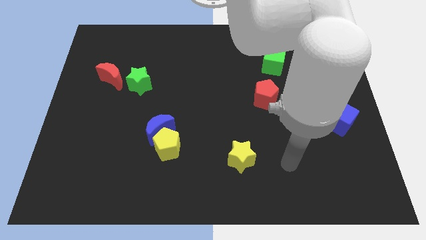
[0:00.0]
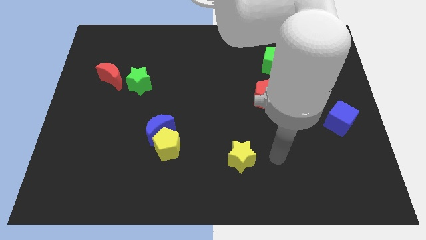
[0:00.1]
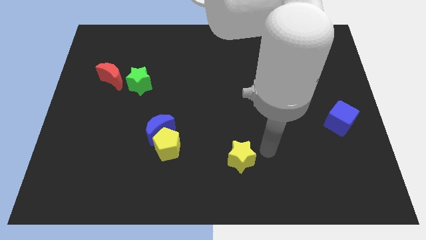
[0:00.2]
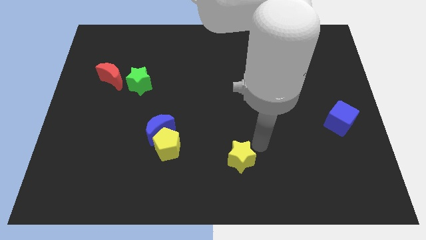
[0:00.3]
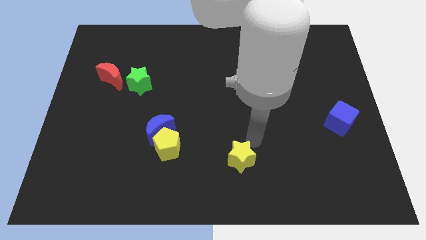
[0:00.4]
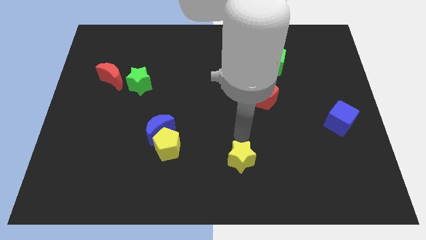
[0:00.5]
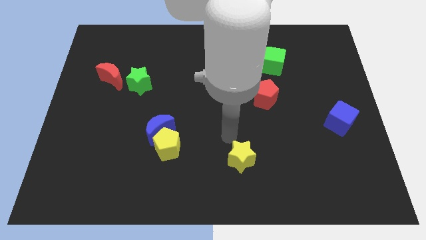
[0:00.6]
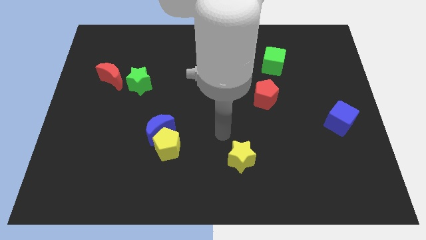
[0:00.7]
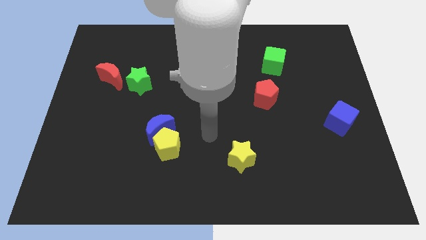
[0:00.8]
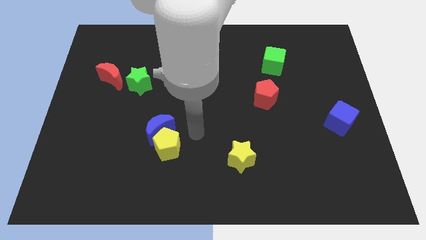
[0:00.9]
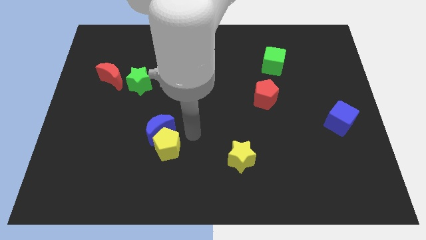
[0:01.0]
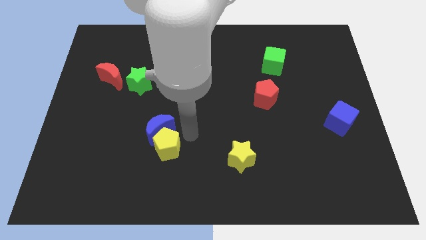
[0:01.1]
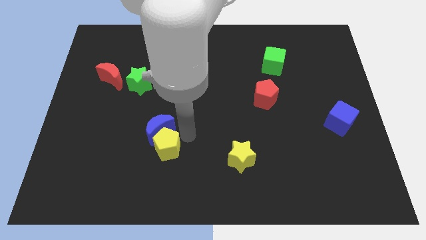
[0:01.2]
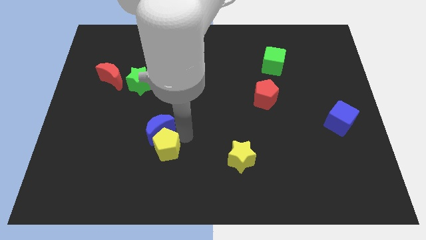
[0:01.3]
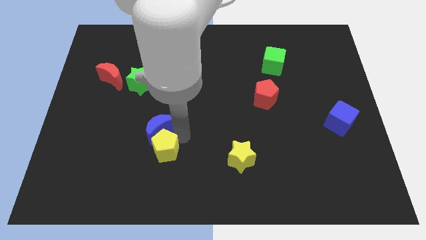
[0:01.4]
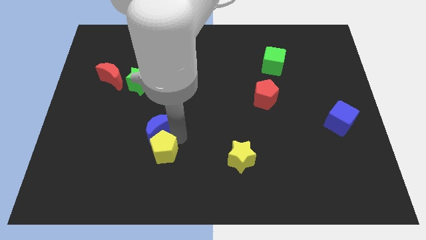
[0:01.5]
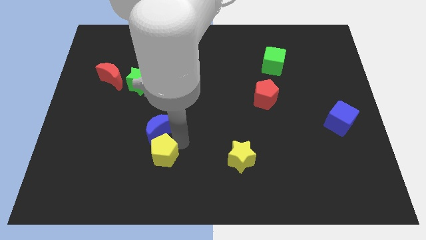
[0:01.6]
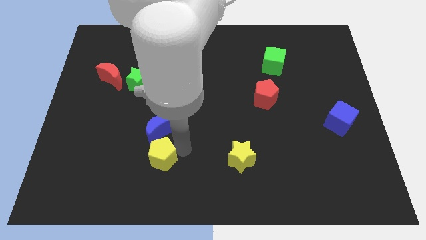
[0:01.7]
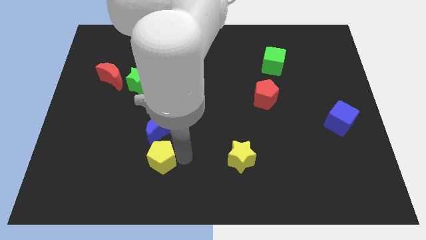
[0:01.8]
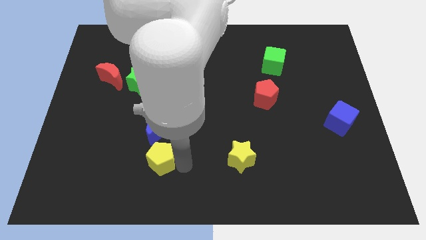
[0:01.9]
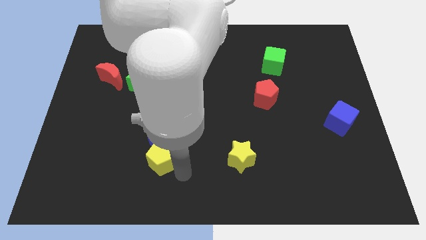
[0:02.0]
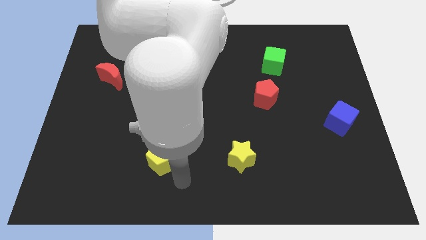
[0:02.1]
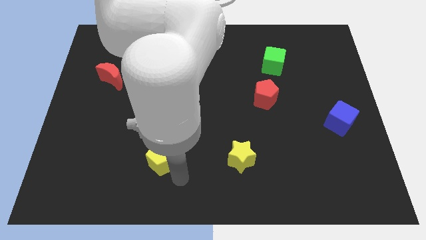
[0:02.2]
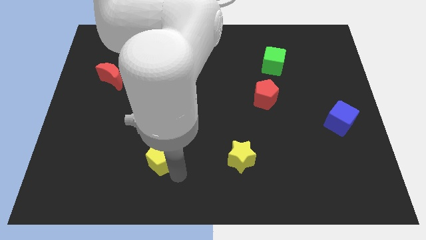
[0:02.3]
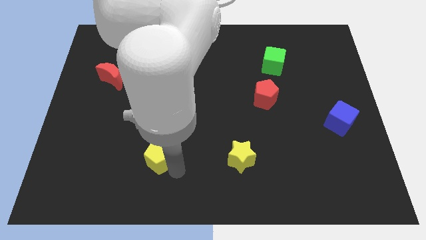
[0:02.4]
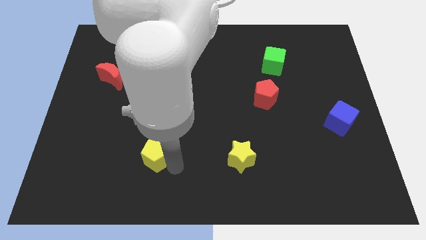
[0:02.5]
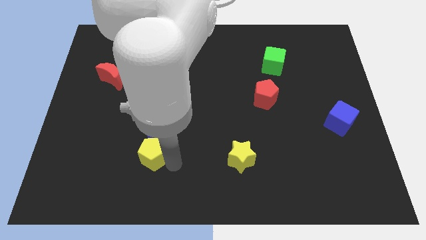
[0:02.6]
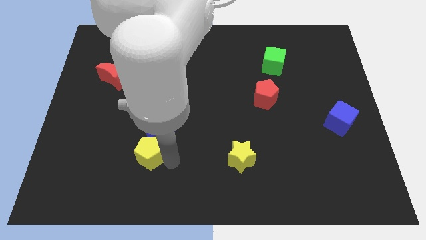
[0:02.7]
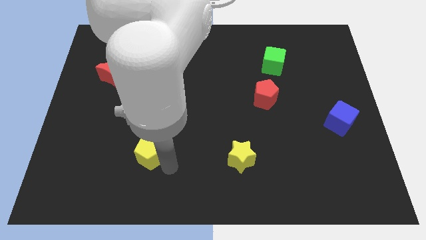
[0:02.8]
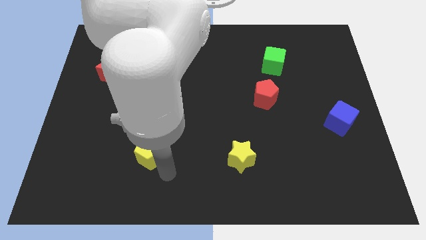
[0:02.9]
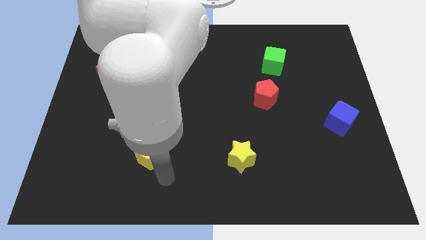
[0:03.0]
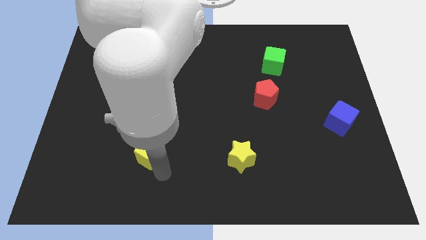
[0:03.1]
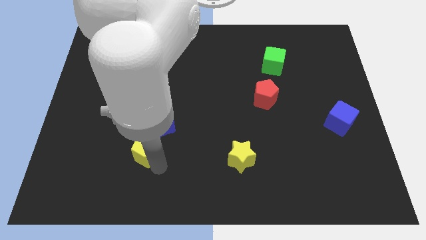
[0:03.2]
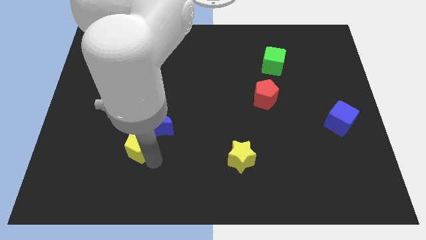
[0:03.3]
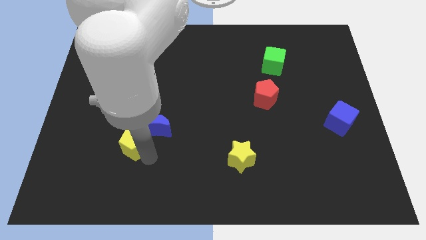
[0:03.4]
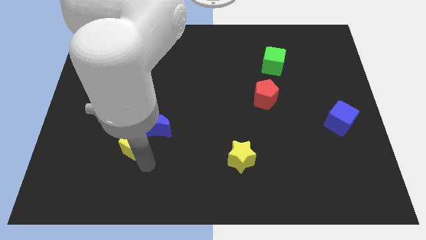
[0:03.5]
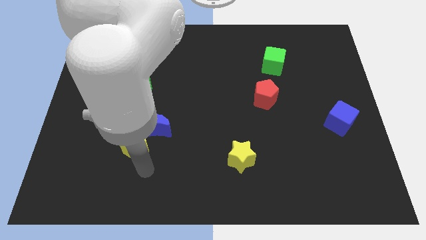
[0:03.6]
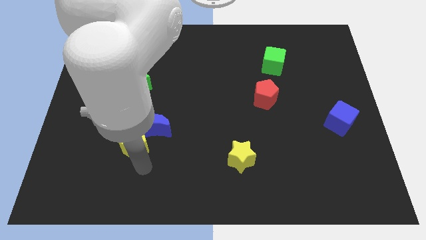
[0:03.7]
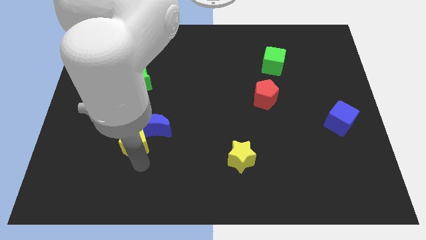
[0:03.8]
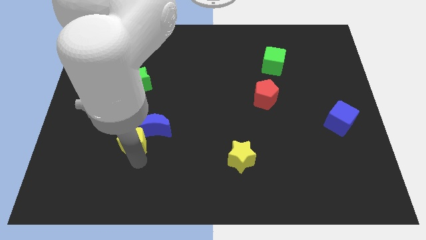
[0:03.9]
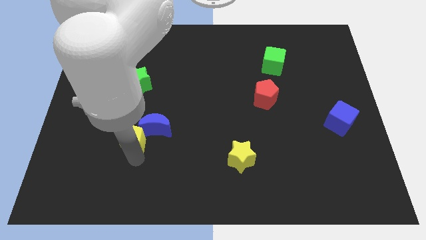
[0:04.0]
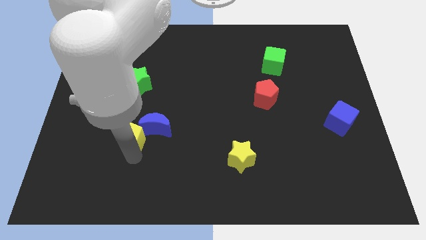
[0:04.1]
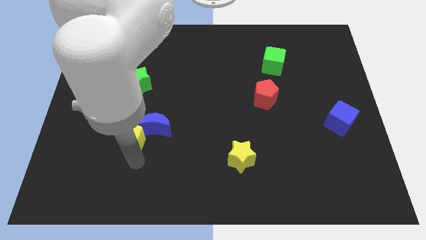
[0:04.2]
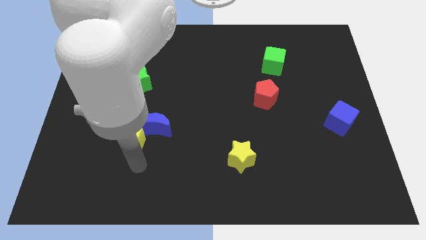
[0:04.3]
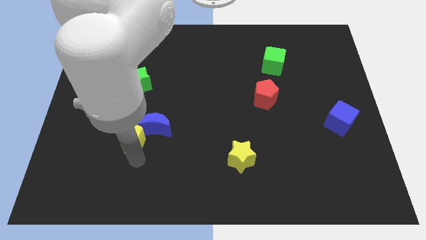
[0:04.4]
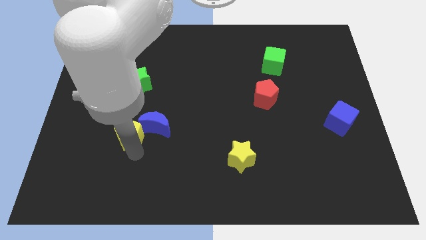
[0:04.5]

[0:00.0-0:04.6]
push the yellow pentagon diagonally up and left a bit

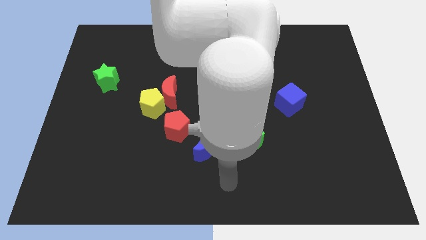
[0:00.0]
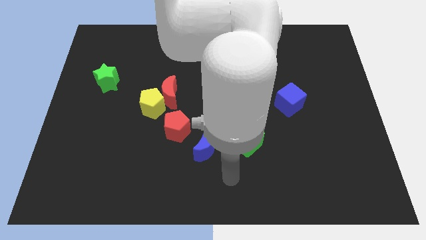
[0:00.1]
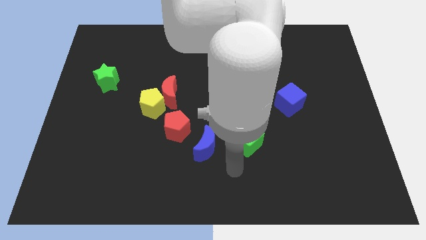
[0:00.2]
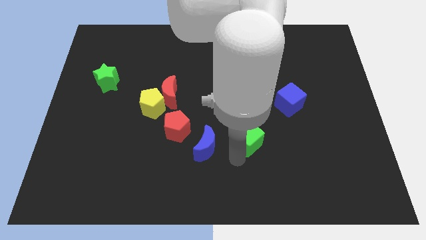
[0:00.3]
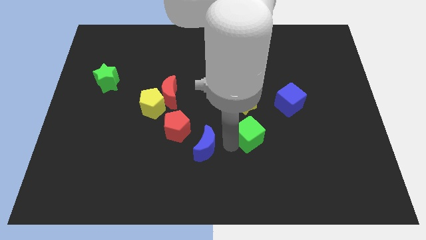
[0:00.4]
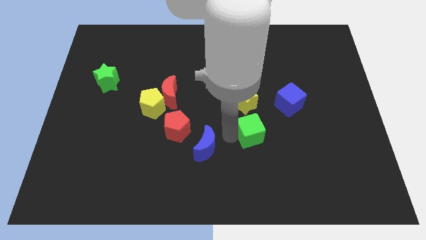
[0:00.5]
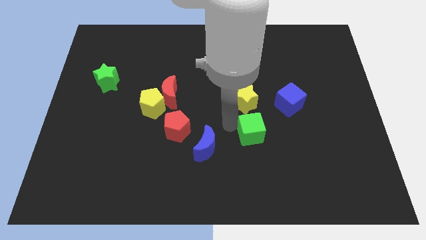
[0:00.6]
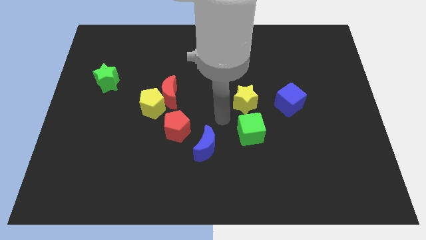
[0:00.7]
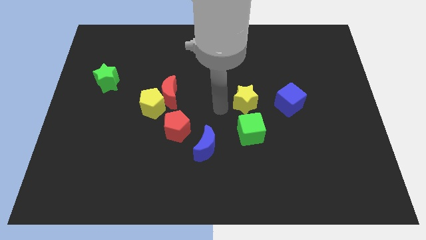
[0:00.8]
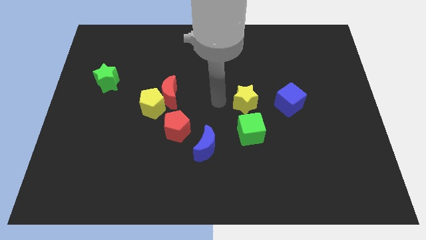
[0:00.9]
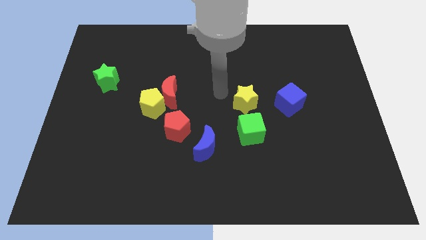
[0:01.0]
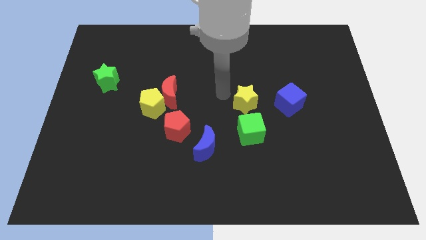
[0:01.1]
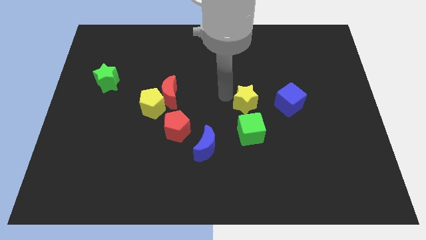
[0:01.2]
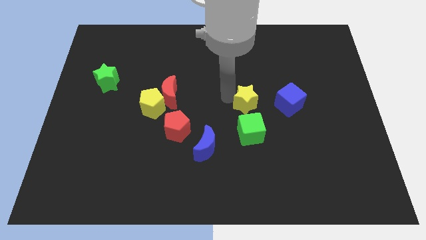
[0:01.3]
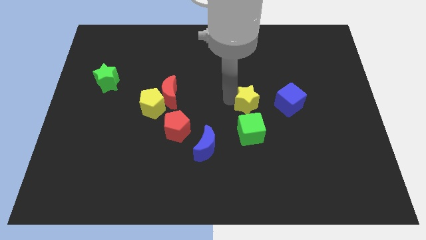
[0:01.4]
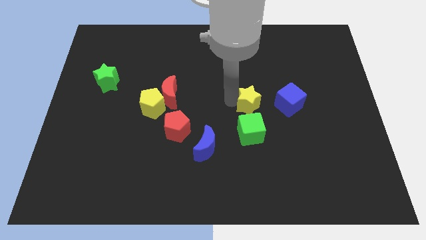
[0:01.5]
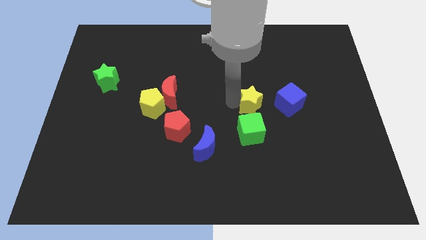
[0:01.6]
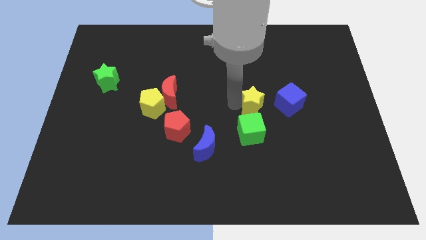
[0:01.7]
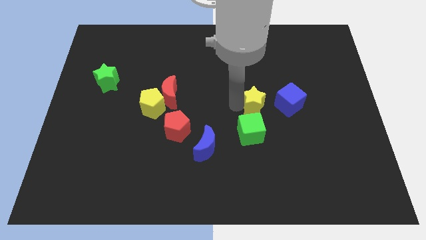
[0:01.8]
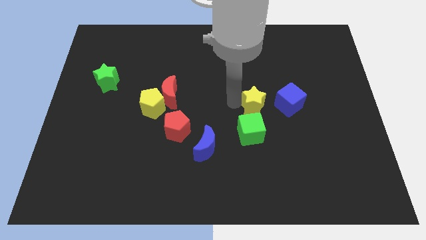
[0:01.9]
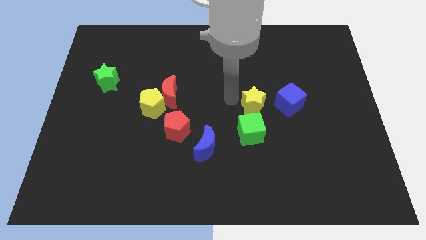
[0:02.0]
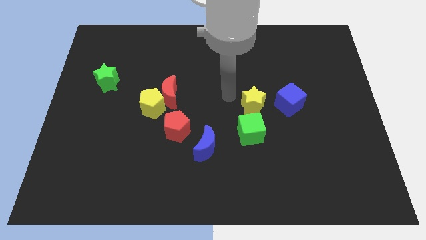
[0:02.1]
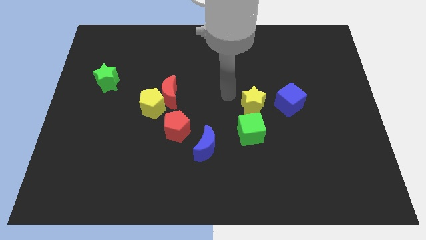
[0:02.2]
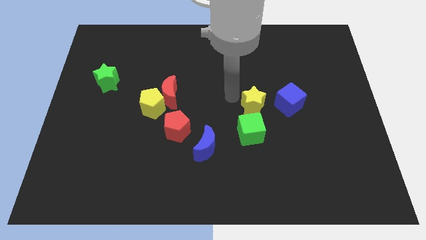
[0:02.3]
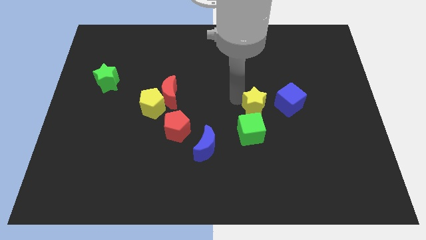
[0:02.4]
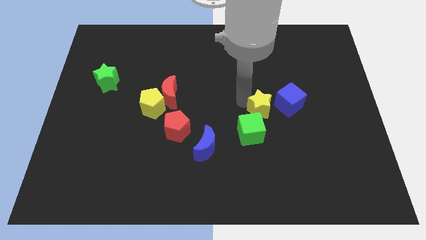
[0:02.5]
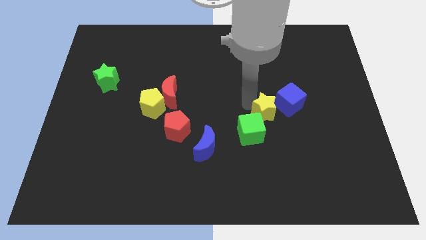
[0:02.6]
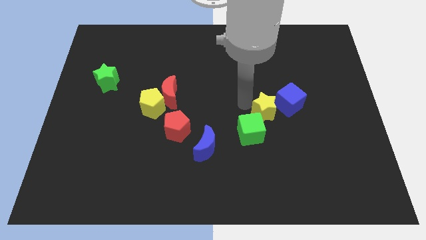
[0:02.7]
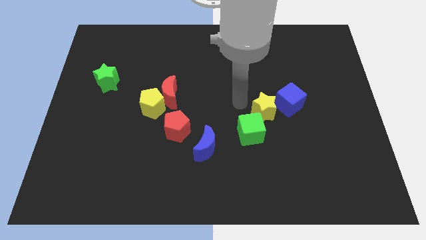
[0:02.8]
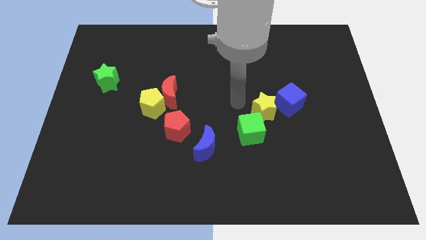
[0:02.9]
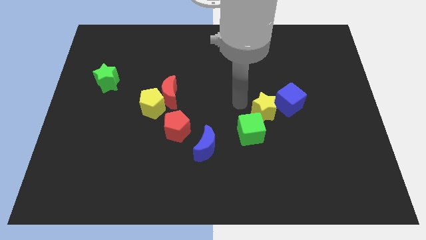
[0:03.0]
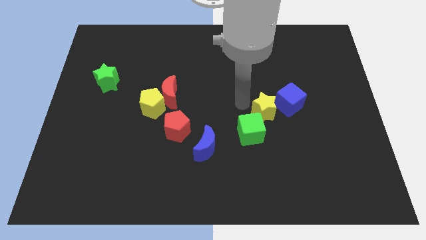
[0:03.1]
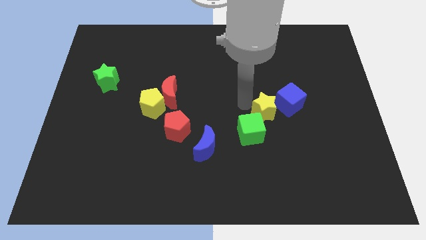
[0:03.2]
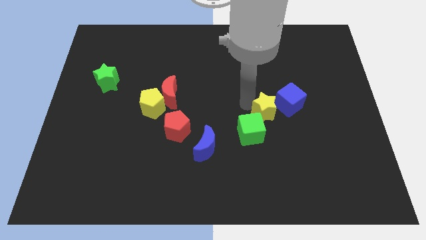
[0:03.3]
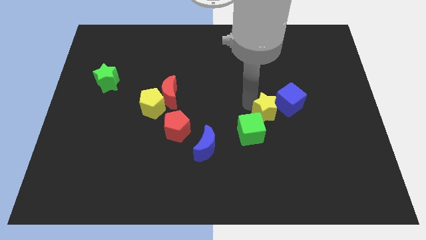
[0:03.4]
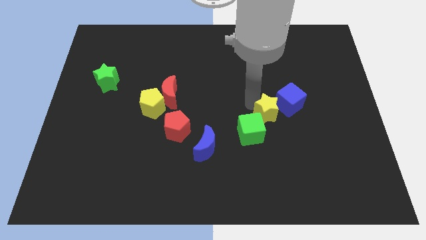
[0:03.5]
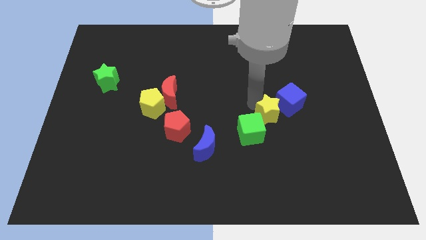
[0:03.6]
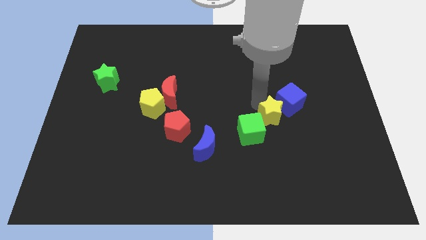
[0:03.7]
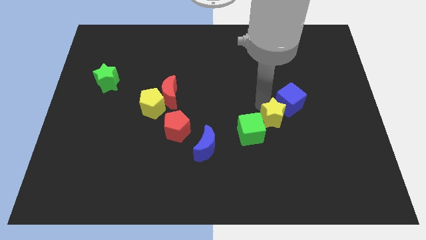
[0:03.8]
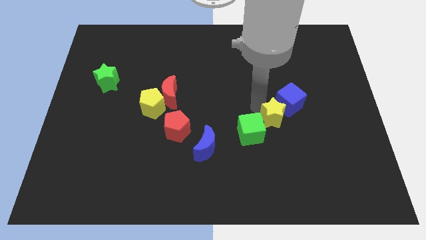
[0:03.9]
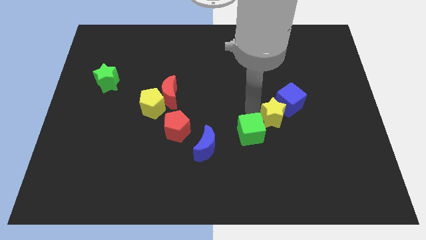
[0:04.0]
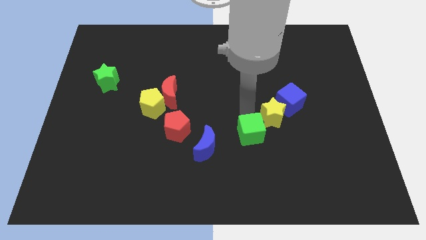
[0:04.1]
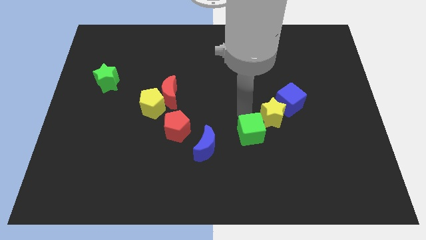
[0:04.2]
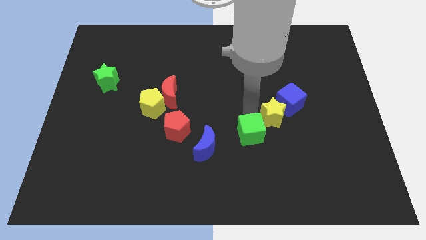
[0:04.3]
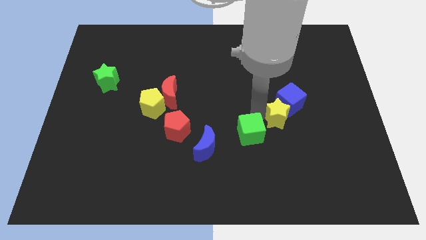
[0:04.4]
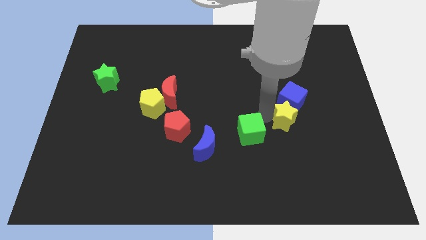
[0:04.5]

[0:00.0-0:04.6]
move the yellow star somewhat to the right
